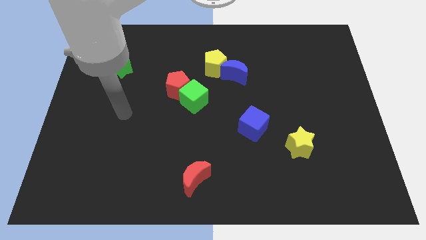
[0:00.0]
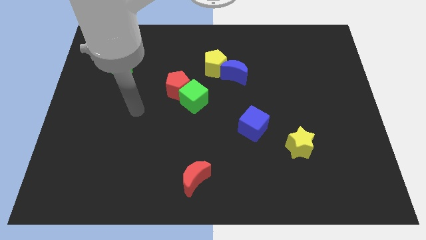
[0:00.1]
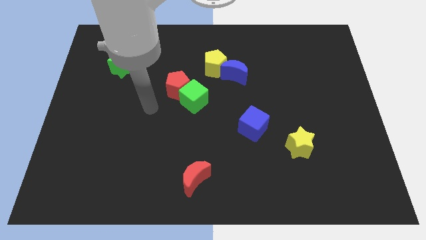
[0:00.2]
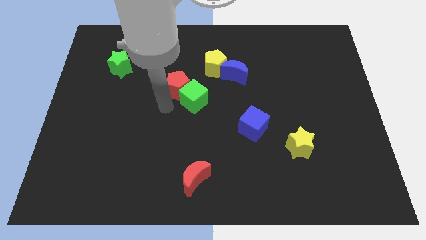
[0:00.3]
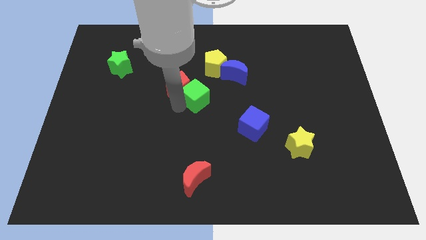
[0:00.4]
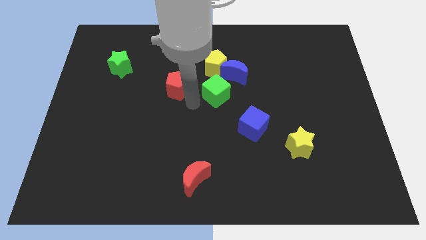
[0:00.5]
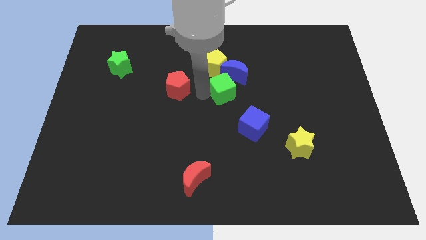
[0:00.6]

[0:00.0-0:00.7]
pull the red pentagon apart from the green cube

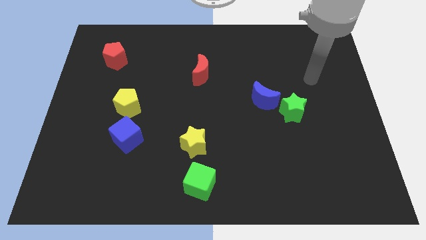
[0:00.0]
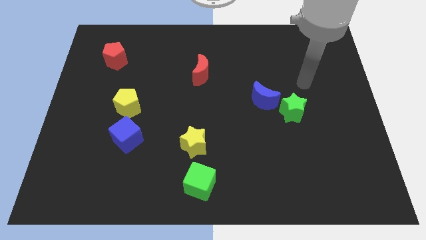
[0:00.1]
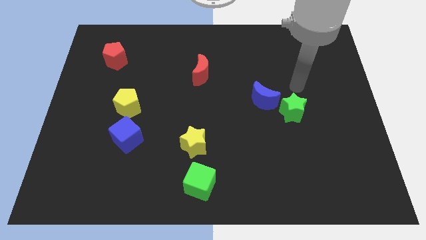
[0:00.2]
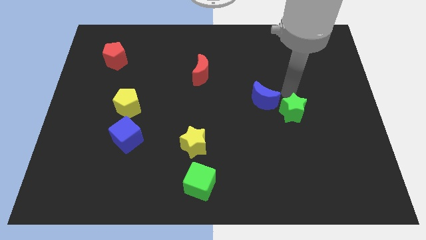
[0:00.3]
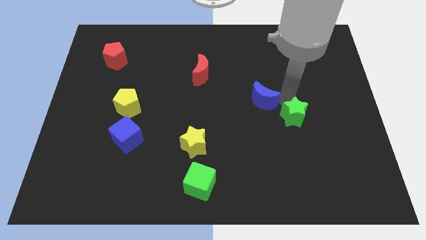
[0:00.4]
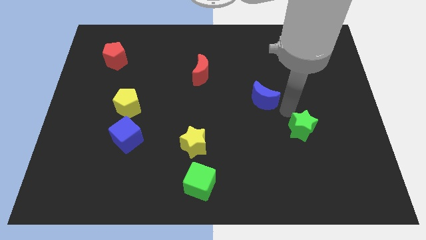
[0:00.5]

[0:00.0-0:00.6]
move the blue moon away from the green star

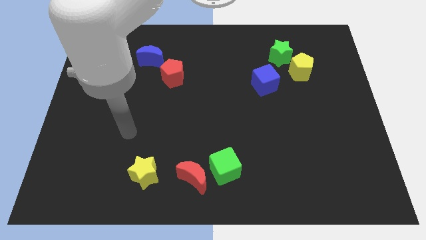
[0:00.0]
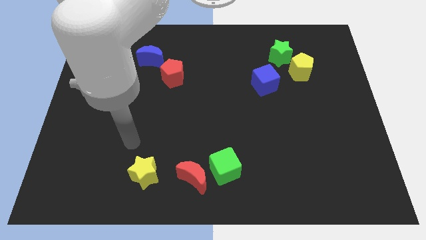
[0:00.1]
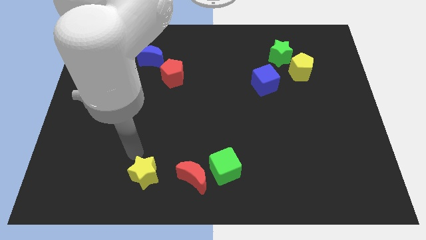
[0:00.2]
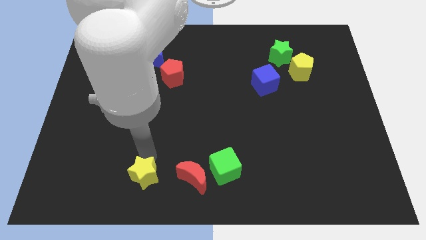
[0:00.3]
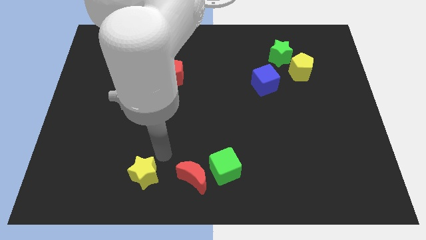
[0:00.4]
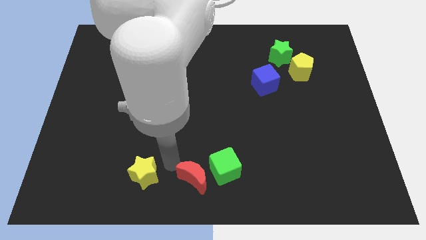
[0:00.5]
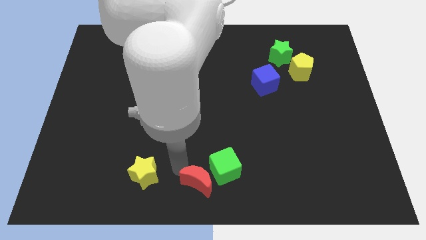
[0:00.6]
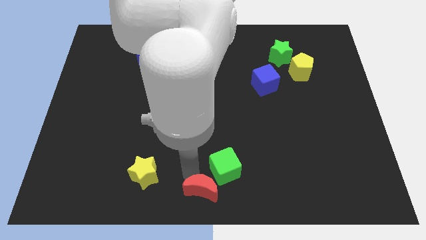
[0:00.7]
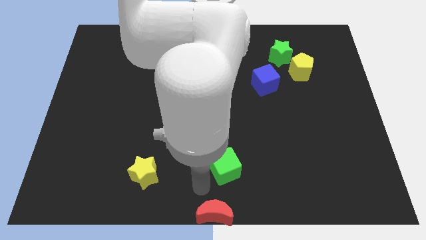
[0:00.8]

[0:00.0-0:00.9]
pull the green cube apart from the red moon

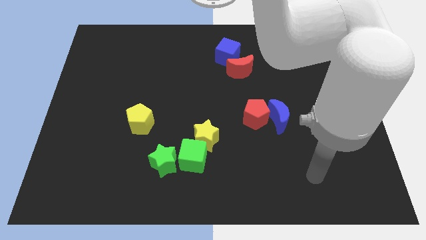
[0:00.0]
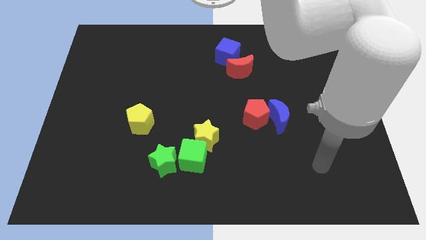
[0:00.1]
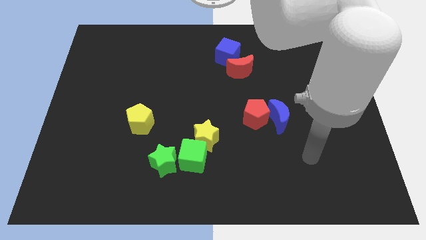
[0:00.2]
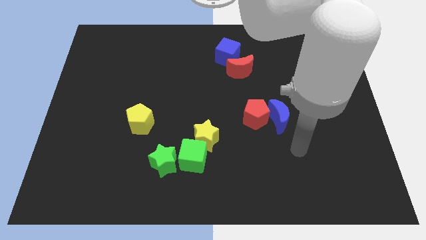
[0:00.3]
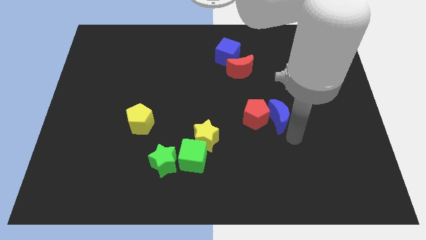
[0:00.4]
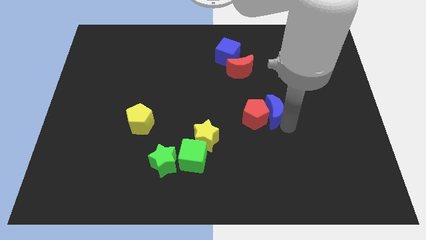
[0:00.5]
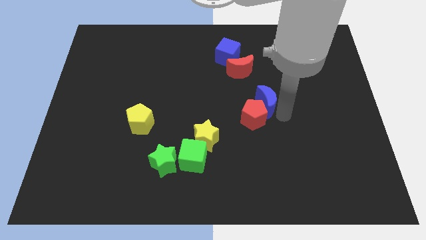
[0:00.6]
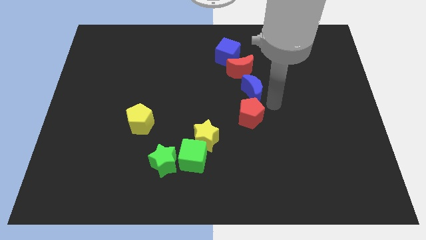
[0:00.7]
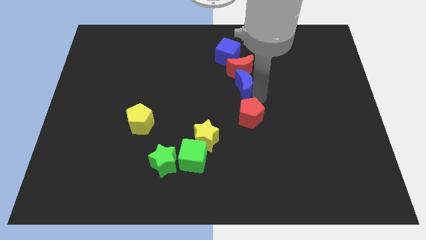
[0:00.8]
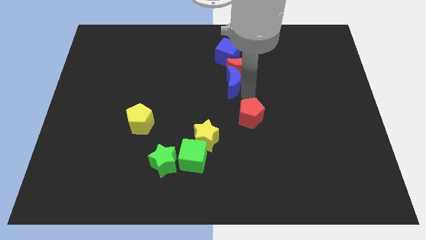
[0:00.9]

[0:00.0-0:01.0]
move the red pentagon away from the blue moon

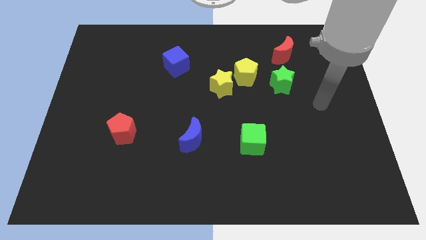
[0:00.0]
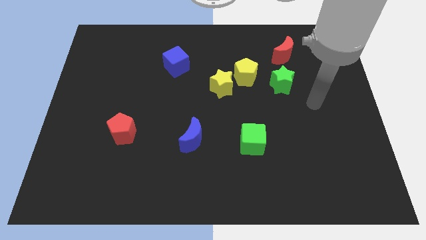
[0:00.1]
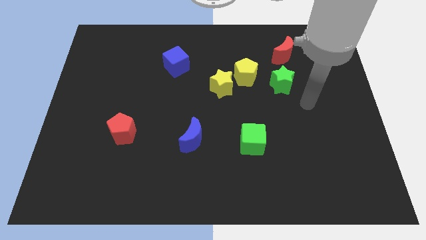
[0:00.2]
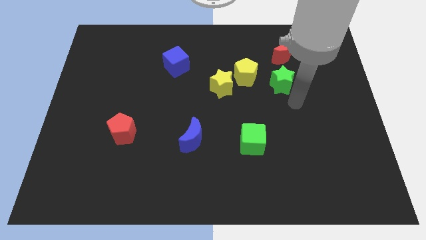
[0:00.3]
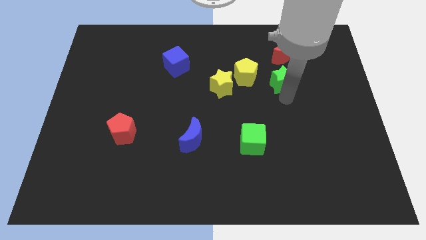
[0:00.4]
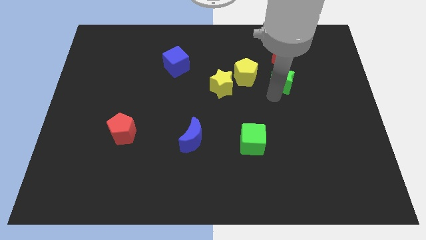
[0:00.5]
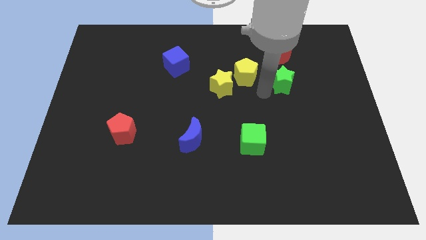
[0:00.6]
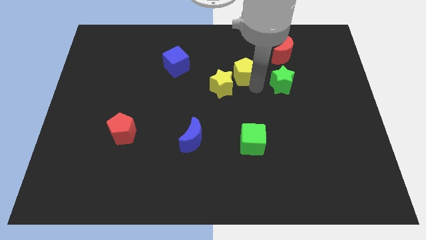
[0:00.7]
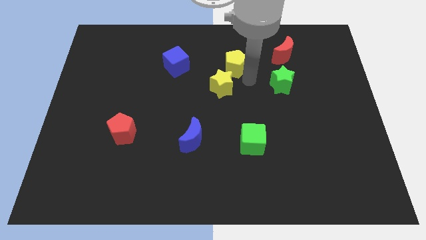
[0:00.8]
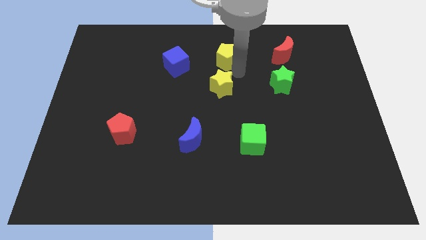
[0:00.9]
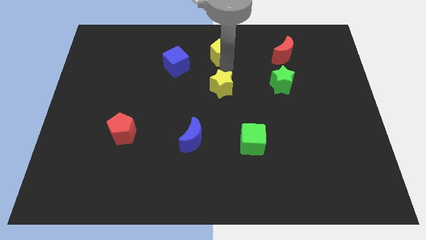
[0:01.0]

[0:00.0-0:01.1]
pull the yellow star apart from the yellow pentagon

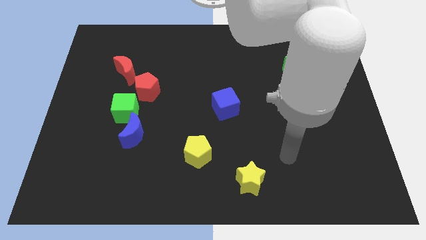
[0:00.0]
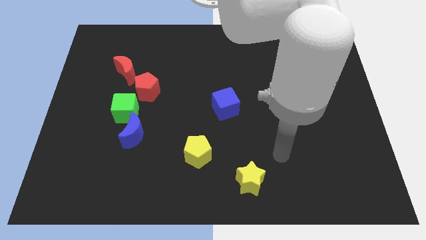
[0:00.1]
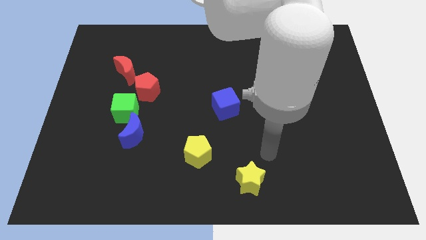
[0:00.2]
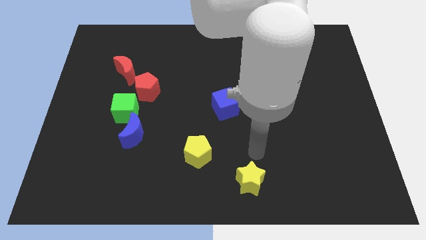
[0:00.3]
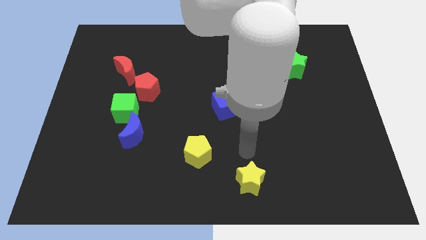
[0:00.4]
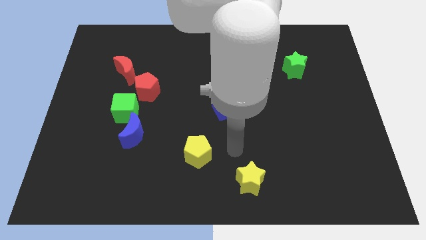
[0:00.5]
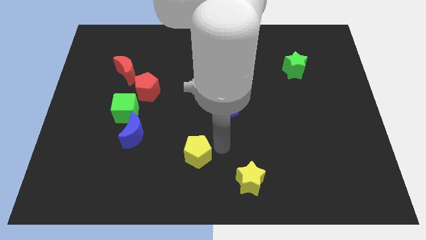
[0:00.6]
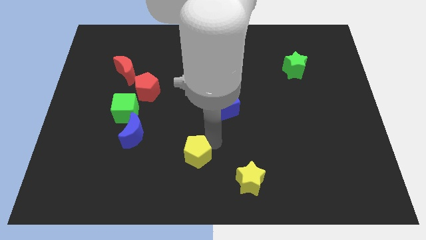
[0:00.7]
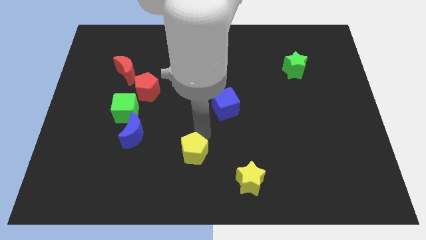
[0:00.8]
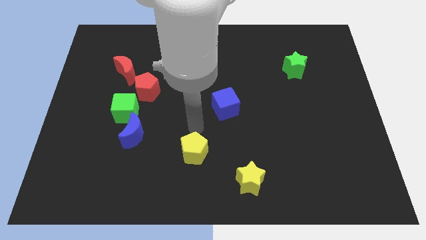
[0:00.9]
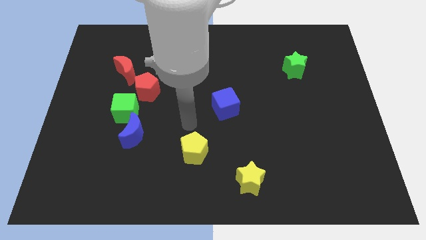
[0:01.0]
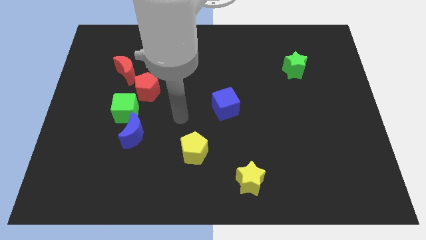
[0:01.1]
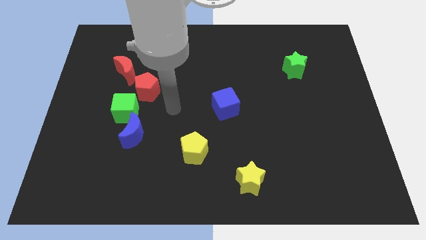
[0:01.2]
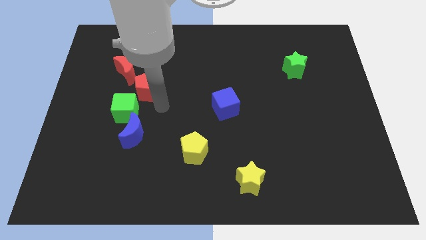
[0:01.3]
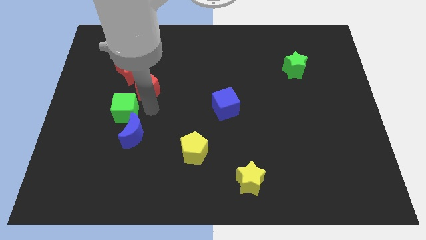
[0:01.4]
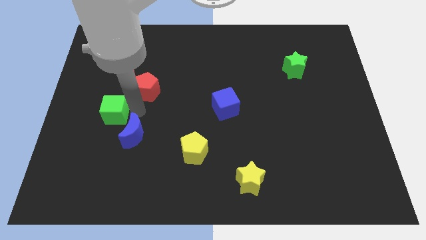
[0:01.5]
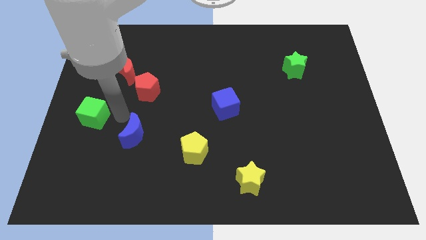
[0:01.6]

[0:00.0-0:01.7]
move the blue moon away from the green cube

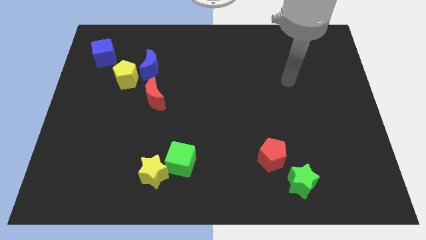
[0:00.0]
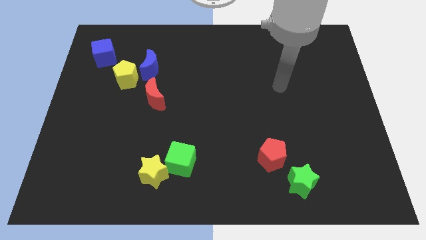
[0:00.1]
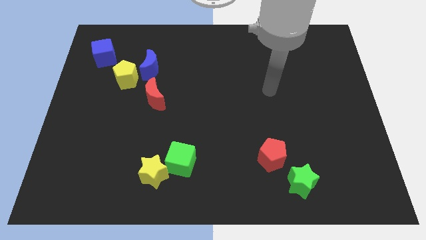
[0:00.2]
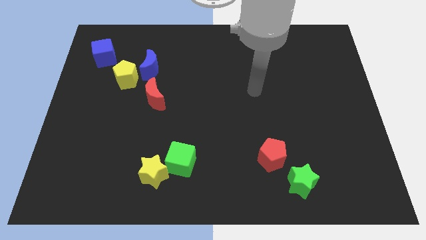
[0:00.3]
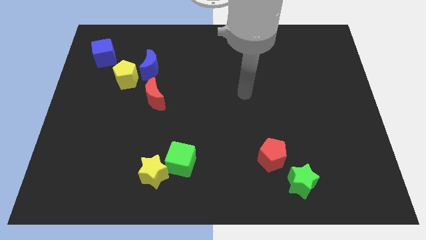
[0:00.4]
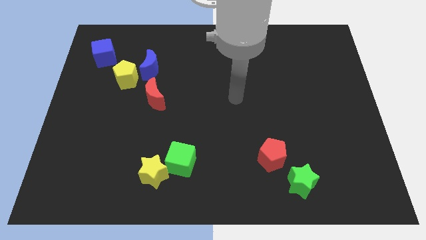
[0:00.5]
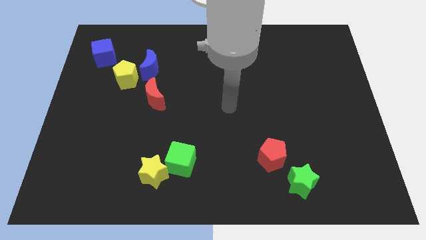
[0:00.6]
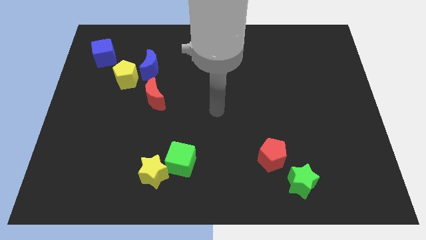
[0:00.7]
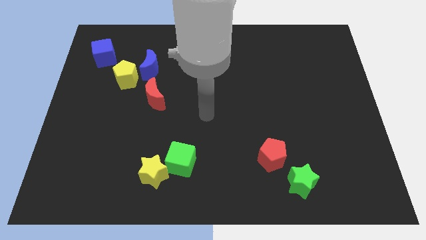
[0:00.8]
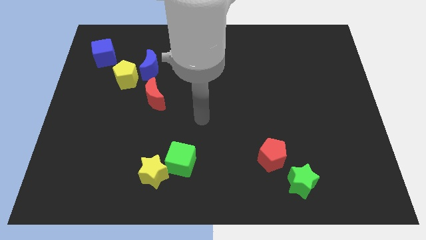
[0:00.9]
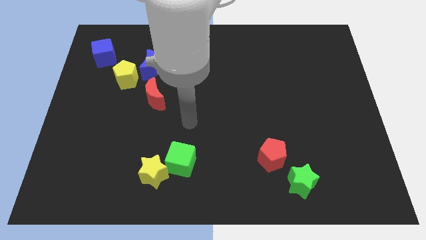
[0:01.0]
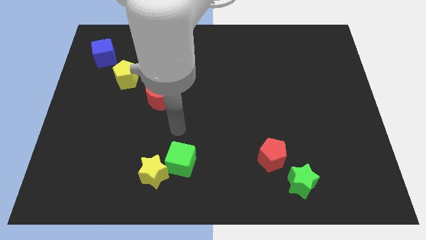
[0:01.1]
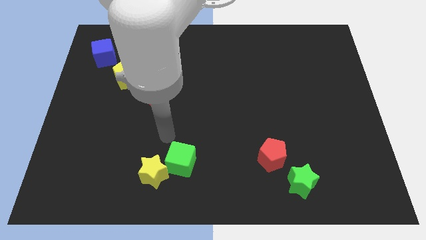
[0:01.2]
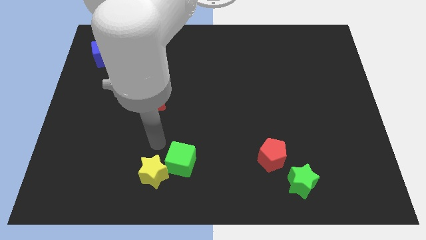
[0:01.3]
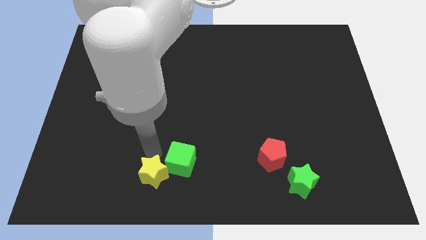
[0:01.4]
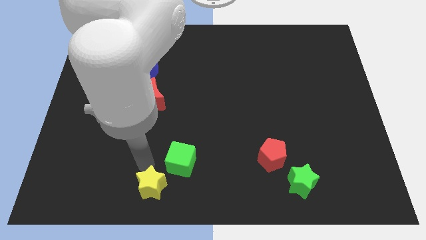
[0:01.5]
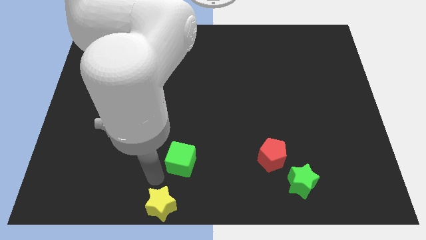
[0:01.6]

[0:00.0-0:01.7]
separate the green cube from the yellow star

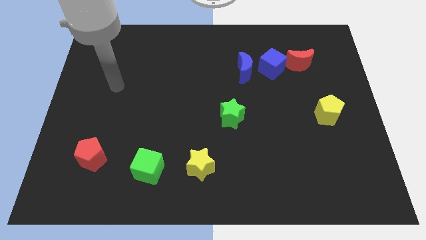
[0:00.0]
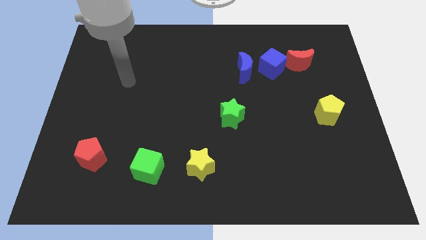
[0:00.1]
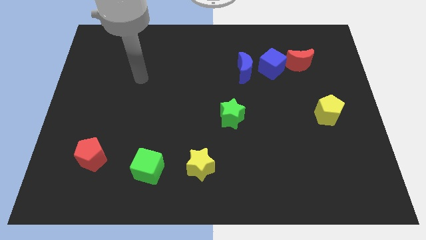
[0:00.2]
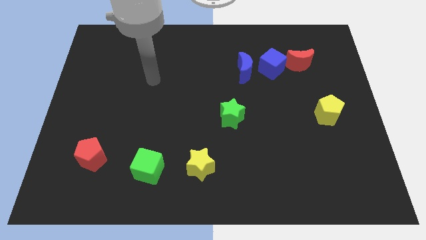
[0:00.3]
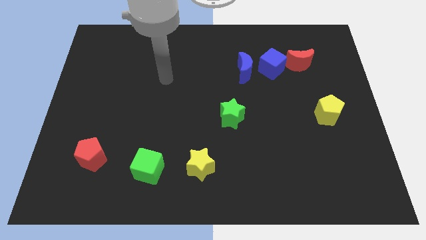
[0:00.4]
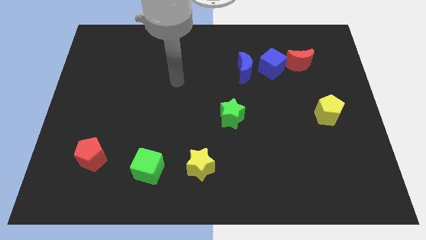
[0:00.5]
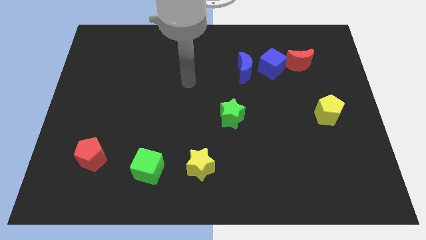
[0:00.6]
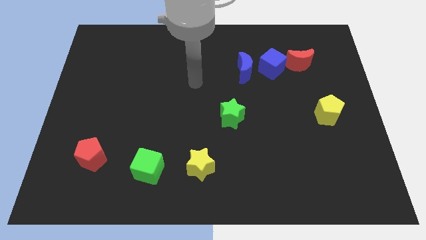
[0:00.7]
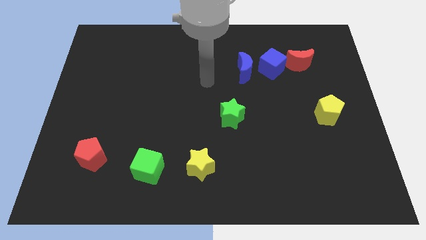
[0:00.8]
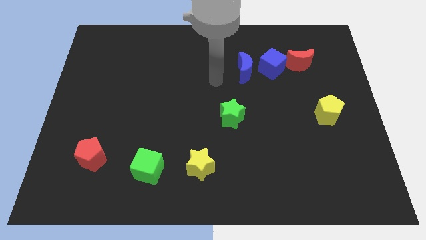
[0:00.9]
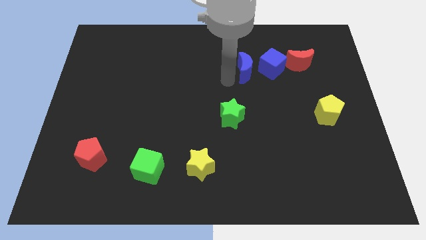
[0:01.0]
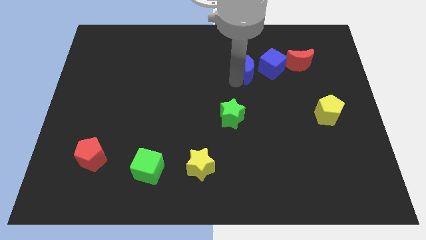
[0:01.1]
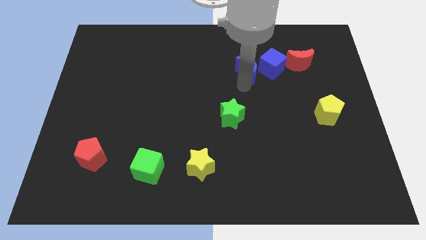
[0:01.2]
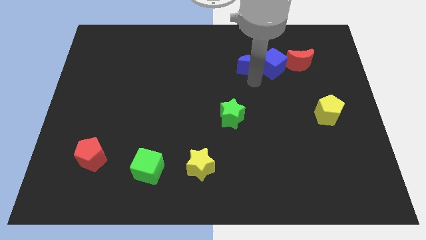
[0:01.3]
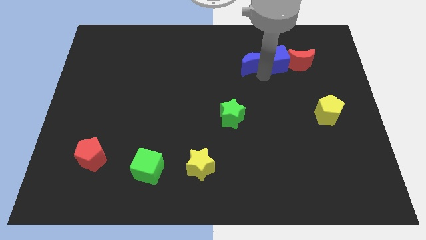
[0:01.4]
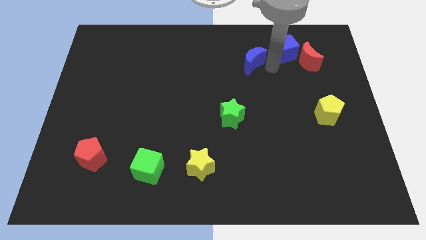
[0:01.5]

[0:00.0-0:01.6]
move the blue moon away from the blue cube

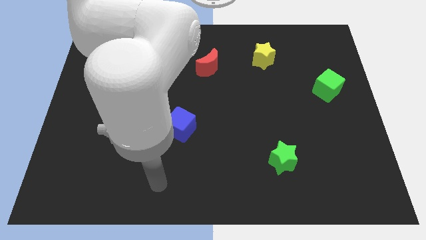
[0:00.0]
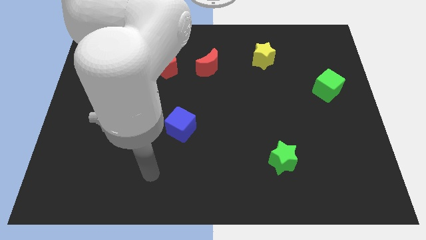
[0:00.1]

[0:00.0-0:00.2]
move the blue moon away from the yellow pentagon
